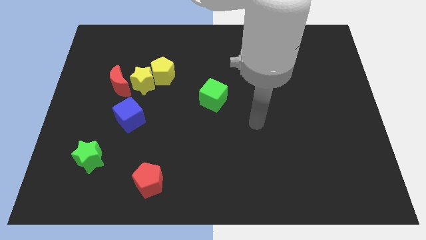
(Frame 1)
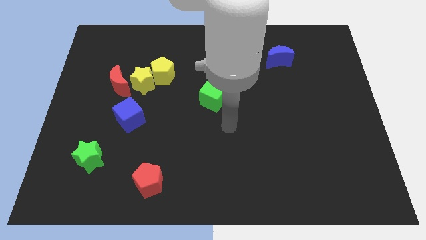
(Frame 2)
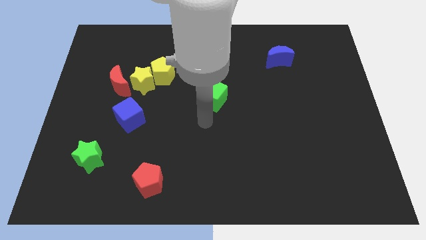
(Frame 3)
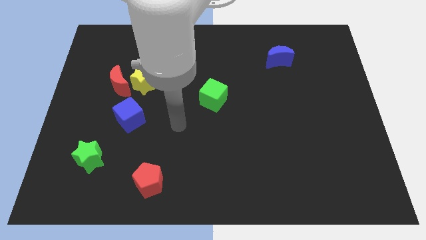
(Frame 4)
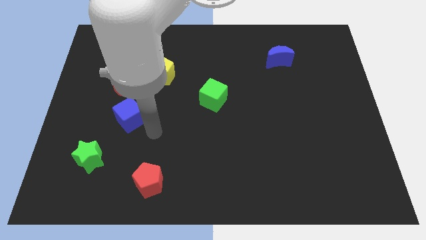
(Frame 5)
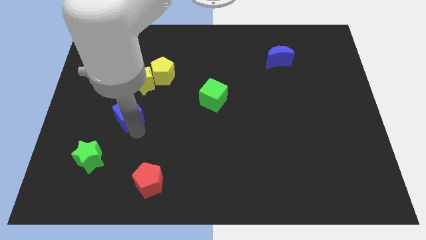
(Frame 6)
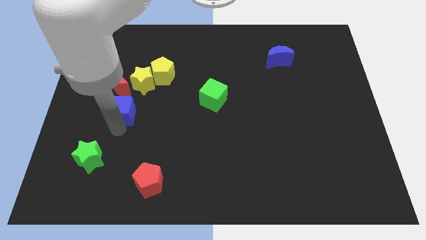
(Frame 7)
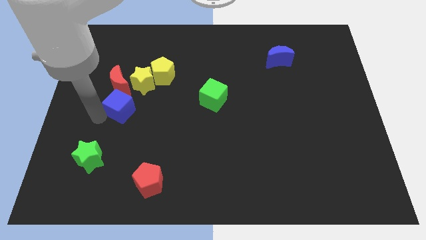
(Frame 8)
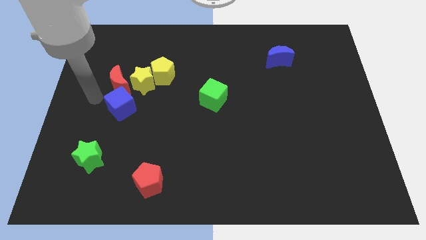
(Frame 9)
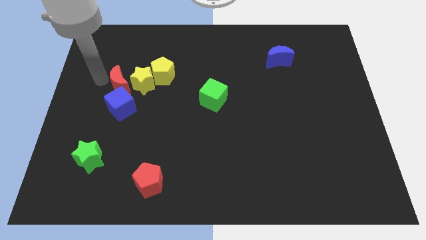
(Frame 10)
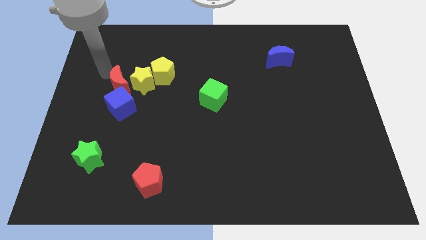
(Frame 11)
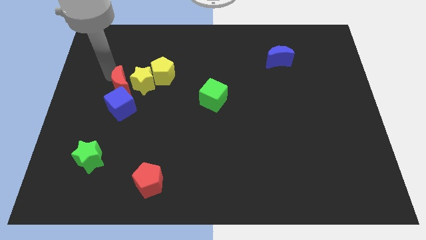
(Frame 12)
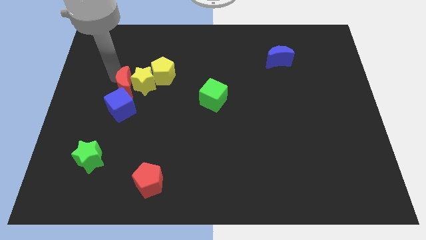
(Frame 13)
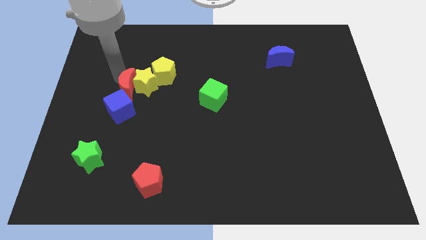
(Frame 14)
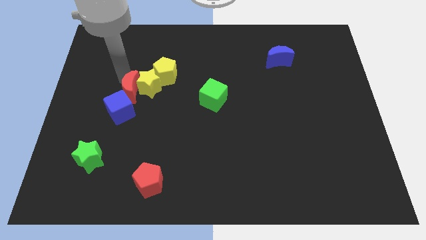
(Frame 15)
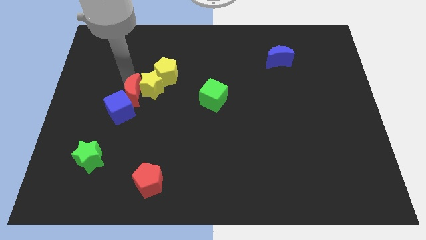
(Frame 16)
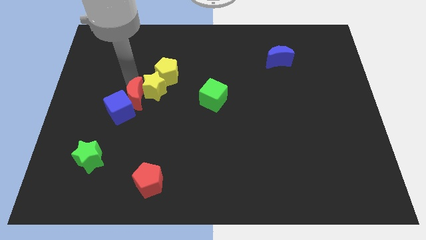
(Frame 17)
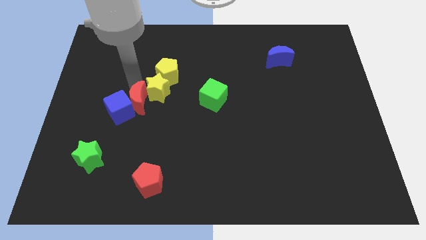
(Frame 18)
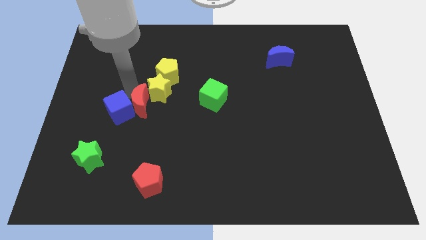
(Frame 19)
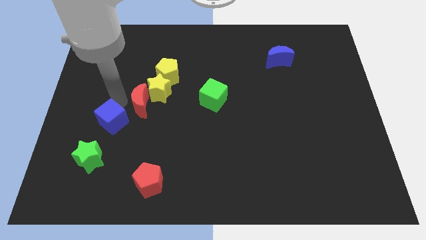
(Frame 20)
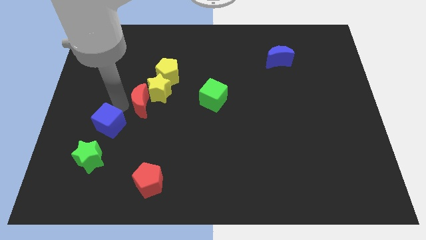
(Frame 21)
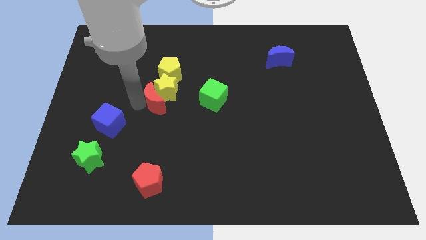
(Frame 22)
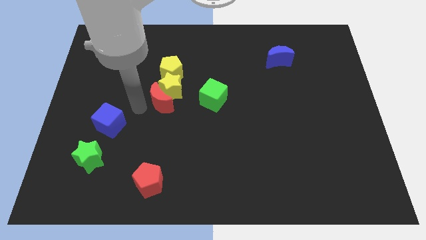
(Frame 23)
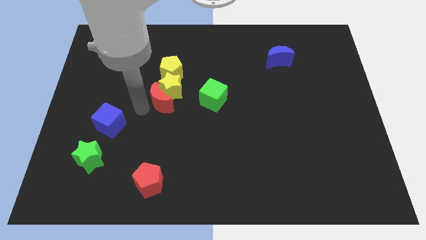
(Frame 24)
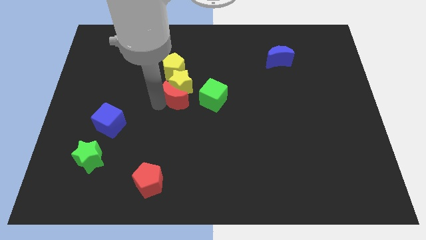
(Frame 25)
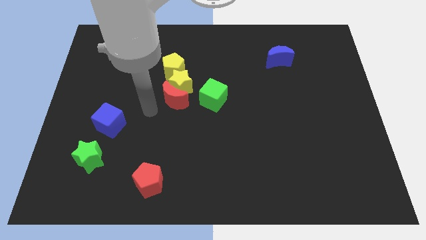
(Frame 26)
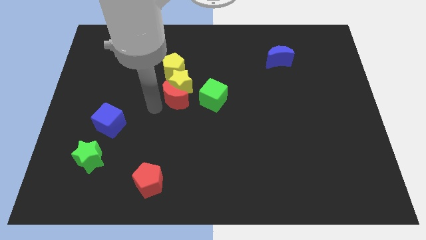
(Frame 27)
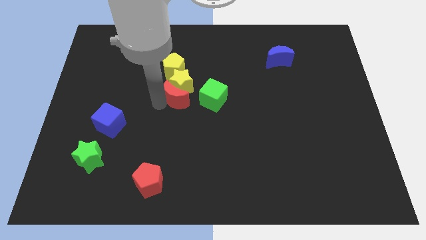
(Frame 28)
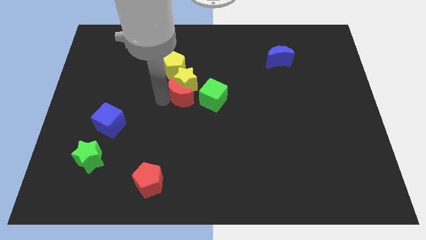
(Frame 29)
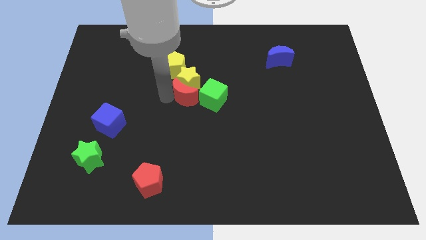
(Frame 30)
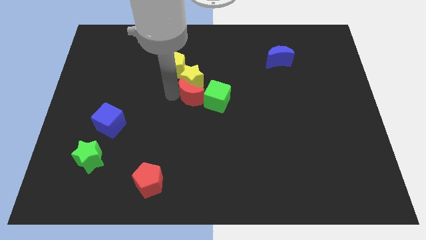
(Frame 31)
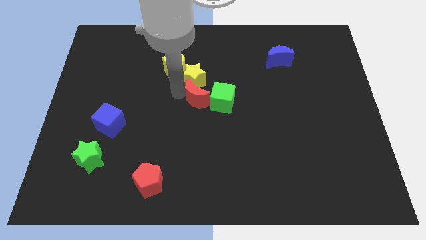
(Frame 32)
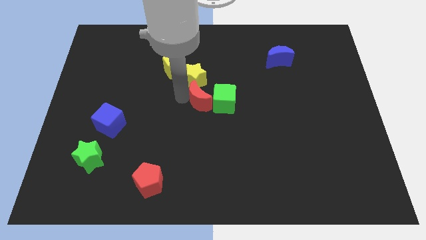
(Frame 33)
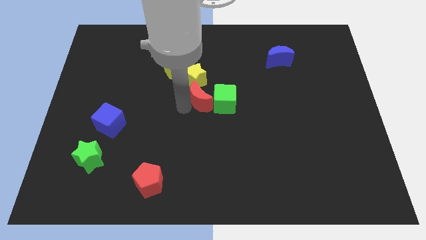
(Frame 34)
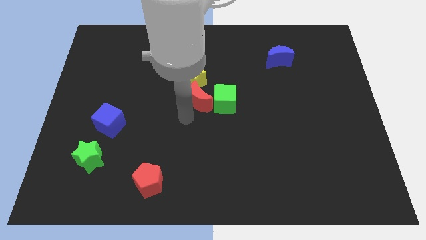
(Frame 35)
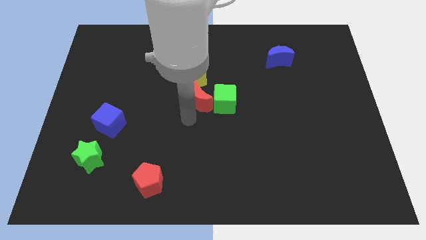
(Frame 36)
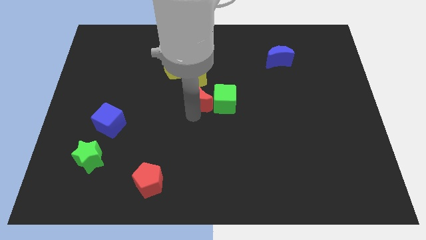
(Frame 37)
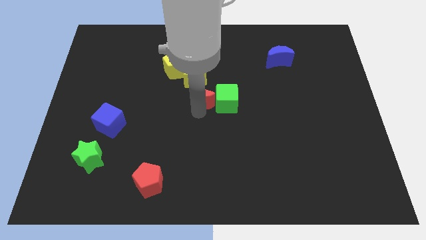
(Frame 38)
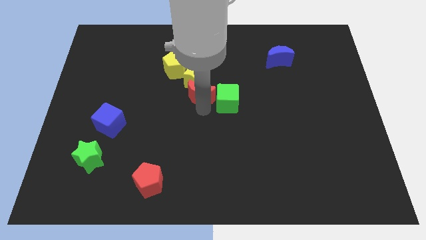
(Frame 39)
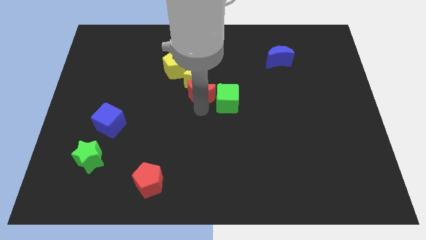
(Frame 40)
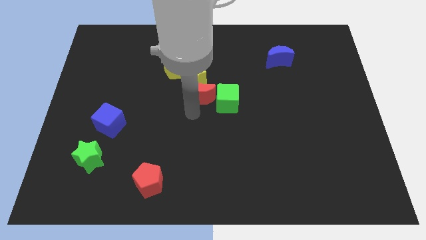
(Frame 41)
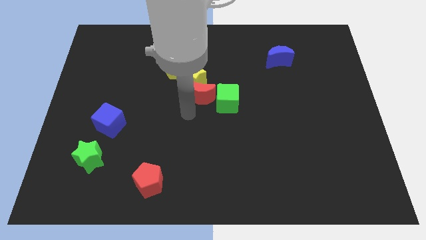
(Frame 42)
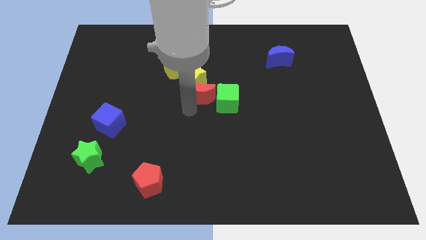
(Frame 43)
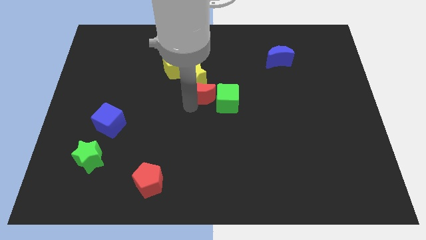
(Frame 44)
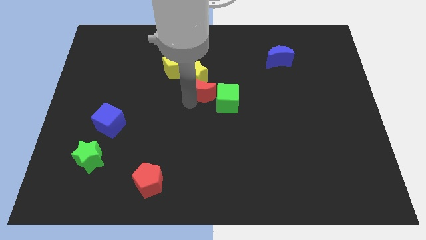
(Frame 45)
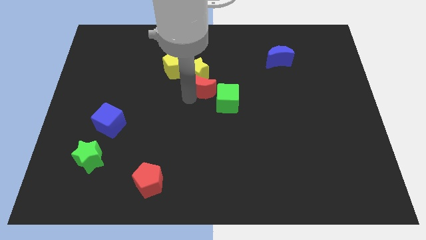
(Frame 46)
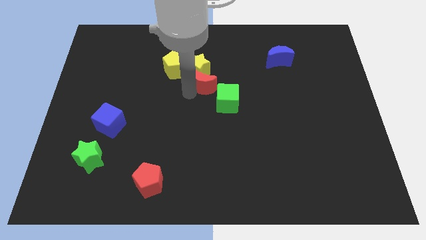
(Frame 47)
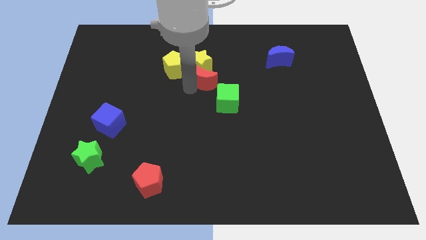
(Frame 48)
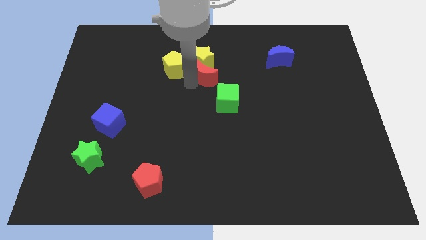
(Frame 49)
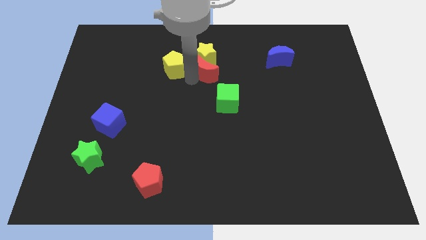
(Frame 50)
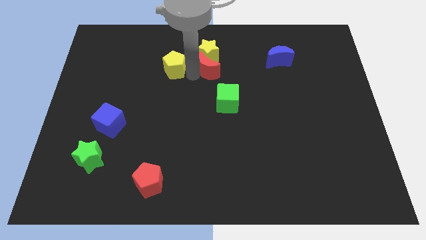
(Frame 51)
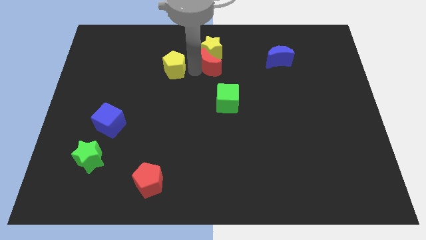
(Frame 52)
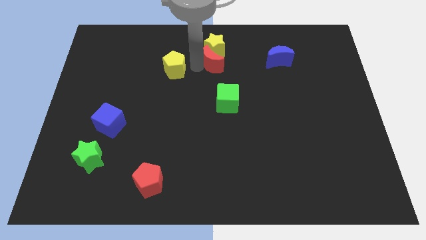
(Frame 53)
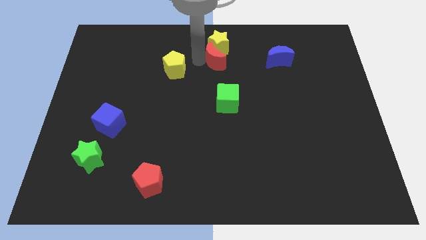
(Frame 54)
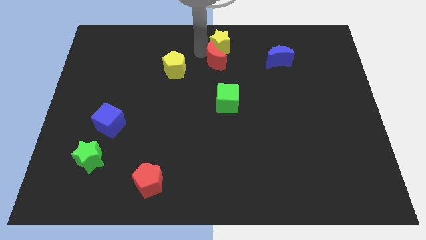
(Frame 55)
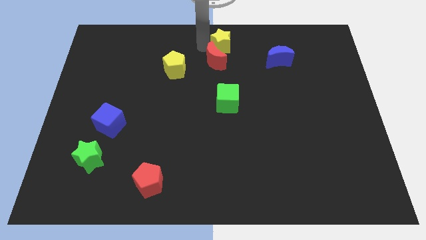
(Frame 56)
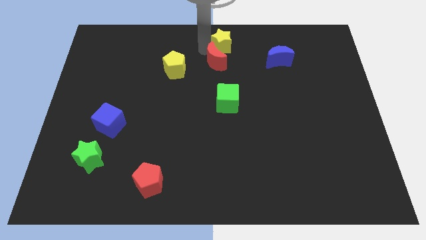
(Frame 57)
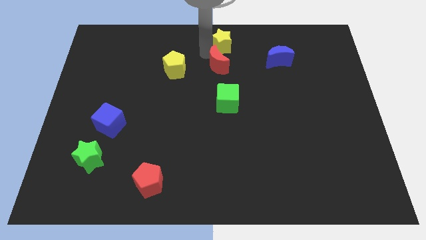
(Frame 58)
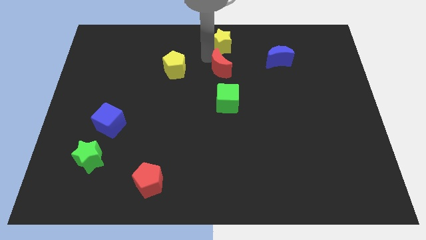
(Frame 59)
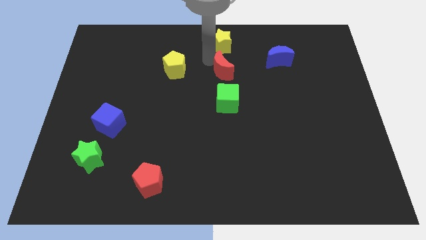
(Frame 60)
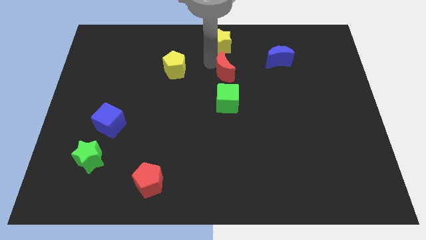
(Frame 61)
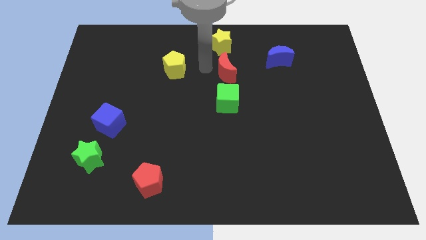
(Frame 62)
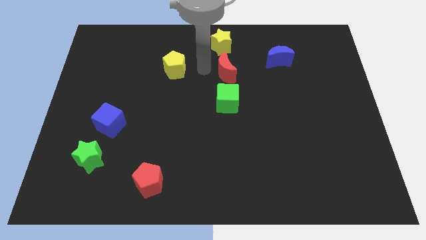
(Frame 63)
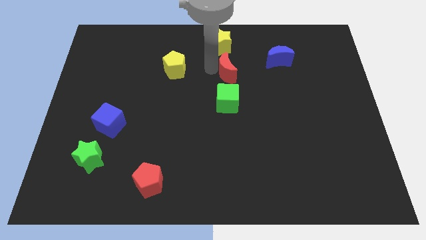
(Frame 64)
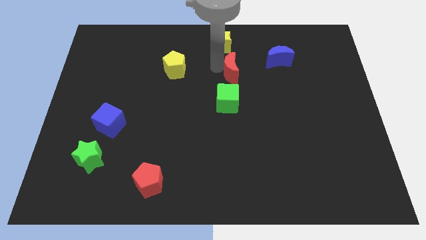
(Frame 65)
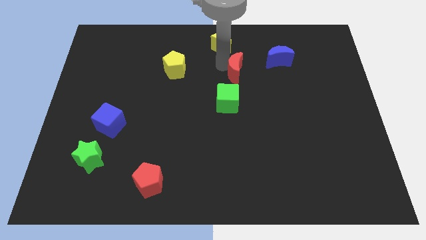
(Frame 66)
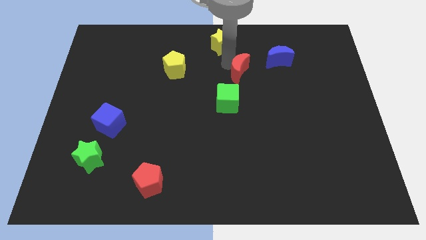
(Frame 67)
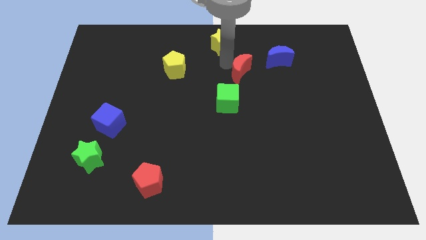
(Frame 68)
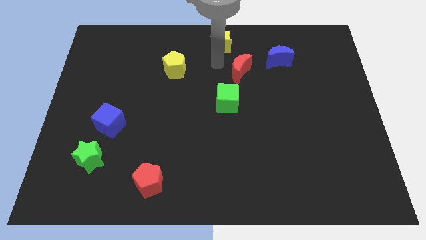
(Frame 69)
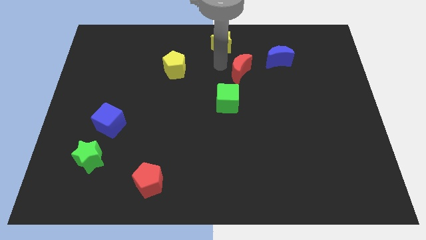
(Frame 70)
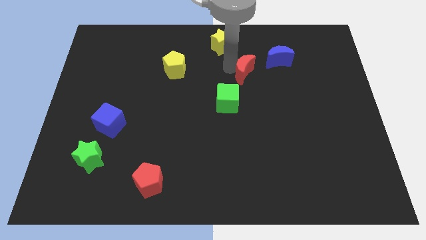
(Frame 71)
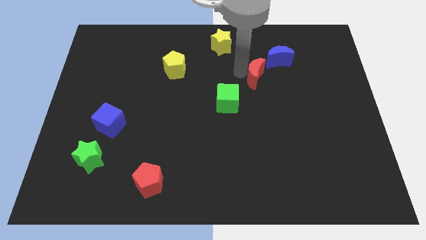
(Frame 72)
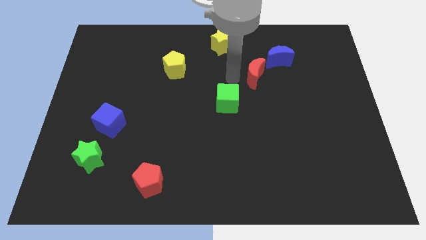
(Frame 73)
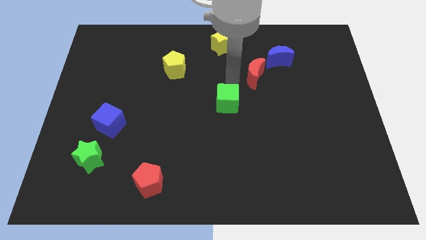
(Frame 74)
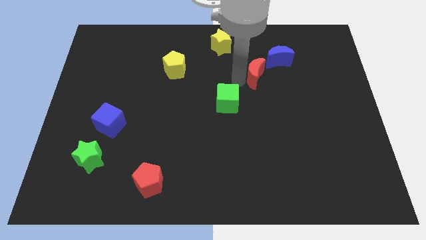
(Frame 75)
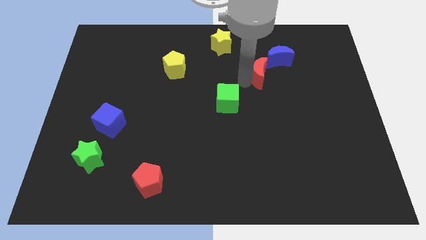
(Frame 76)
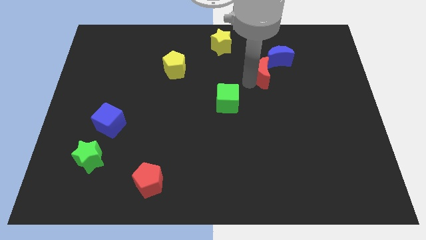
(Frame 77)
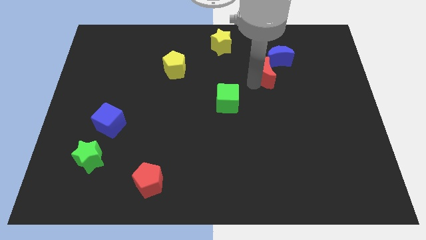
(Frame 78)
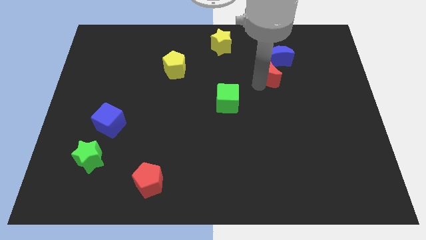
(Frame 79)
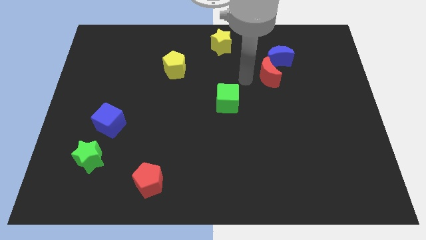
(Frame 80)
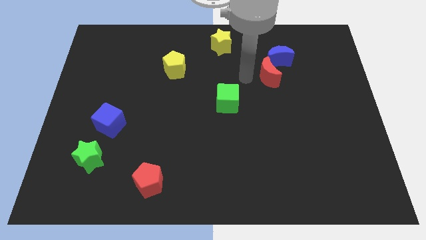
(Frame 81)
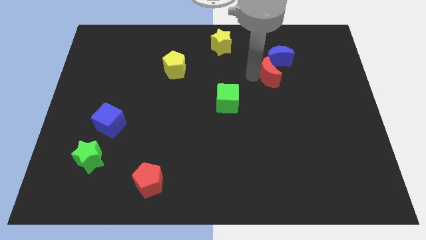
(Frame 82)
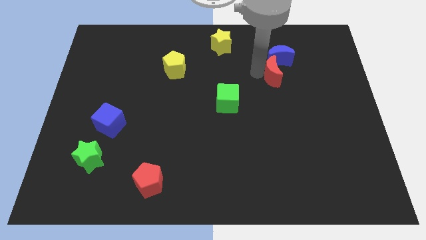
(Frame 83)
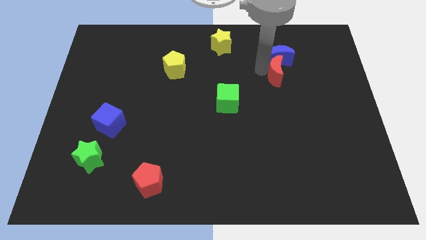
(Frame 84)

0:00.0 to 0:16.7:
put the red moon diagonally down and to the right of the blue moon
